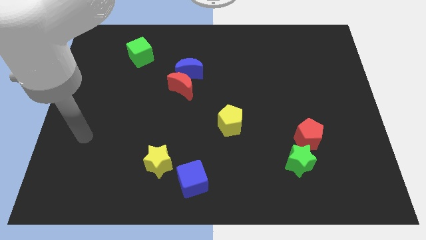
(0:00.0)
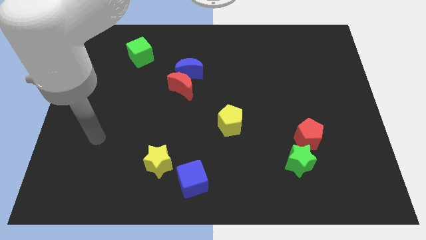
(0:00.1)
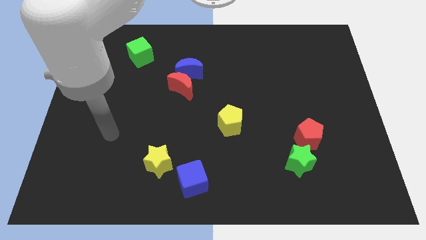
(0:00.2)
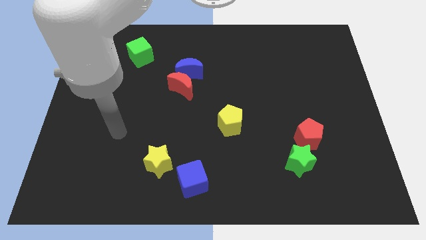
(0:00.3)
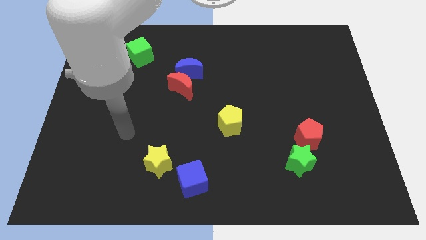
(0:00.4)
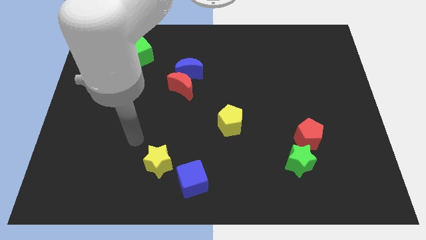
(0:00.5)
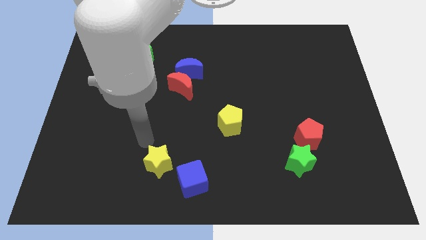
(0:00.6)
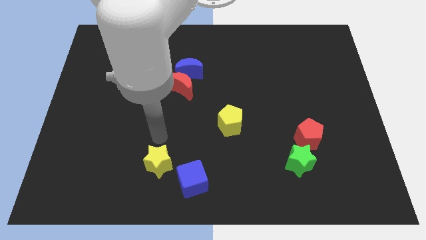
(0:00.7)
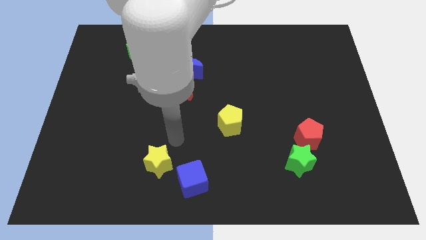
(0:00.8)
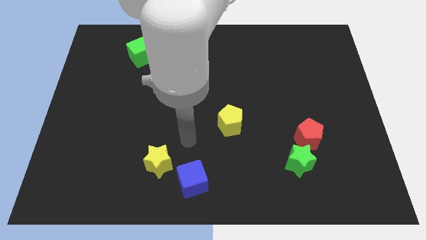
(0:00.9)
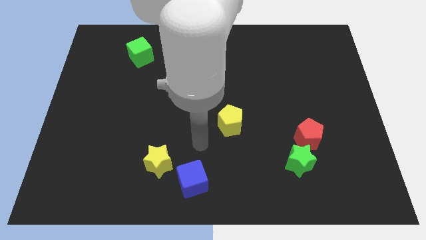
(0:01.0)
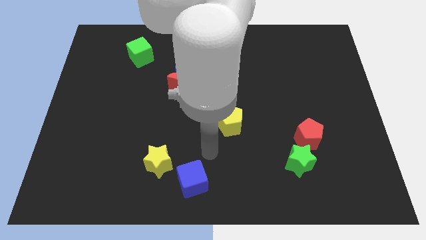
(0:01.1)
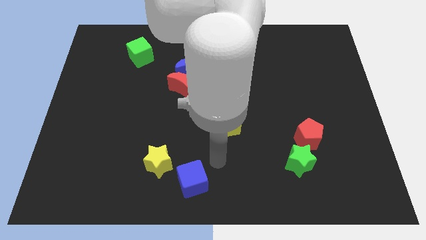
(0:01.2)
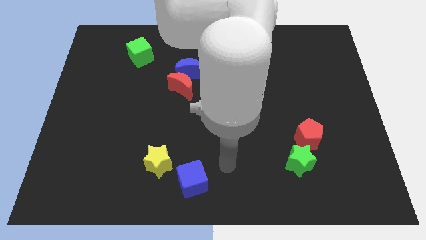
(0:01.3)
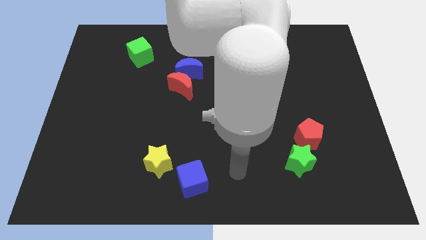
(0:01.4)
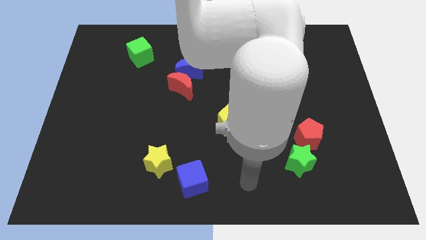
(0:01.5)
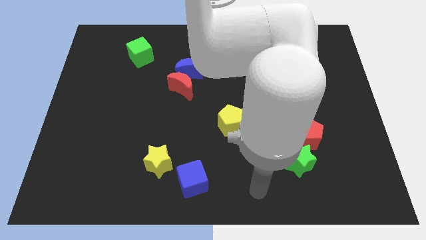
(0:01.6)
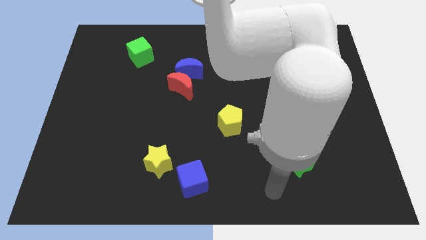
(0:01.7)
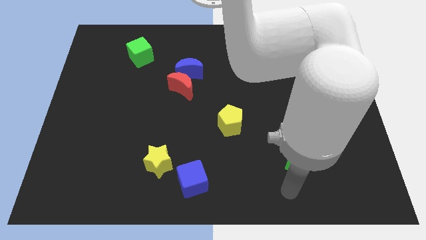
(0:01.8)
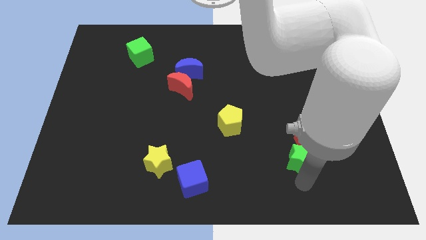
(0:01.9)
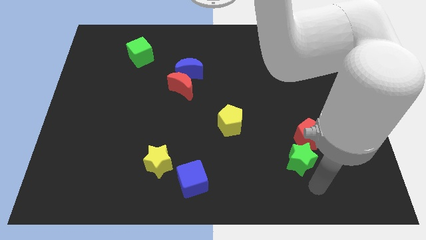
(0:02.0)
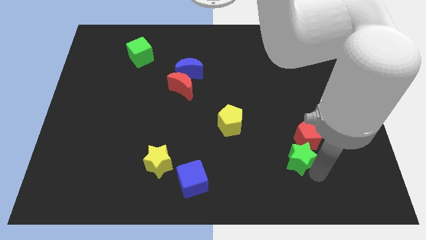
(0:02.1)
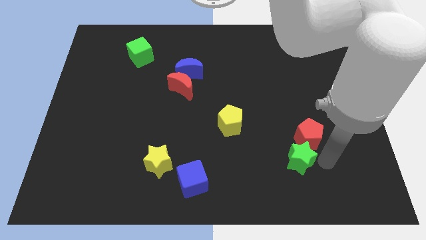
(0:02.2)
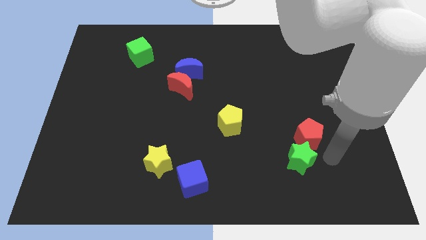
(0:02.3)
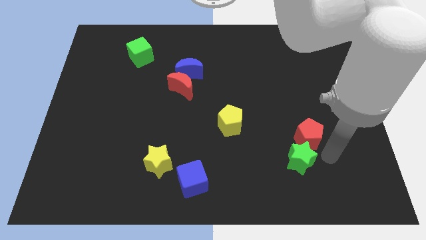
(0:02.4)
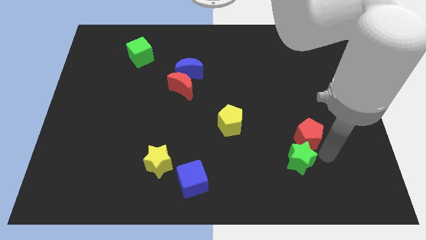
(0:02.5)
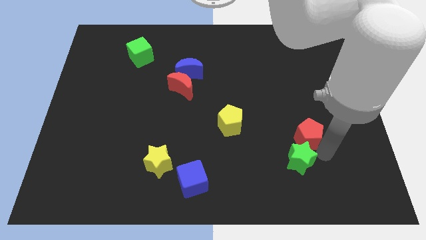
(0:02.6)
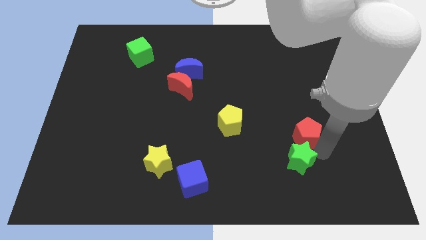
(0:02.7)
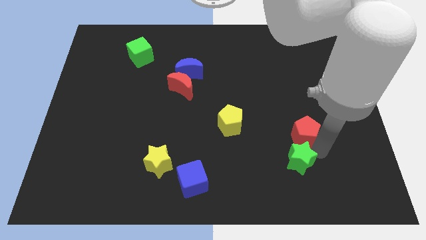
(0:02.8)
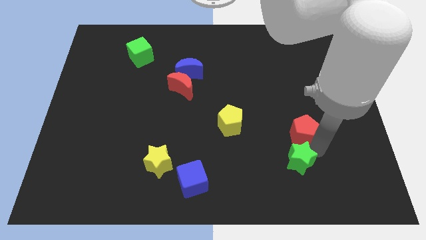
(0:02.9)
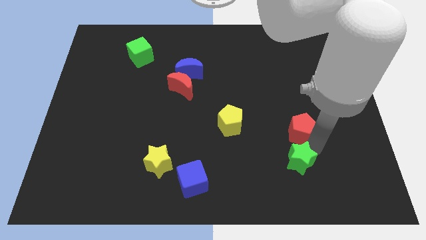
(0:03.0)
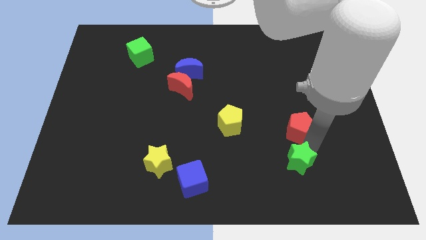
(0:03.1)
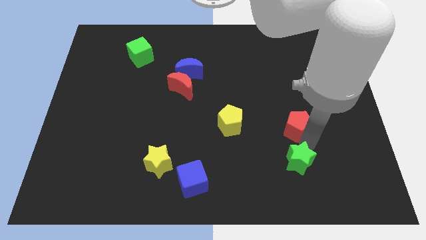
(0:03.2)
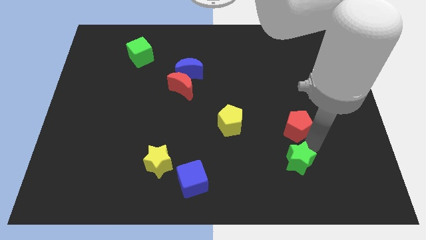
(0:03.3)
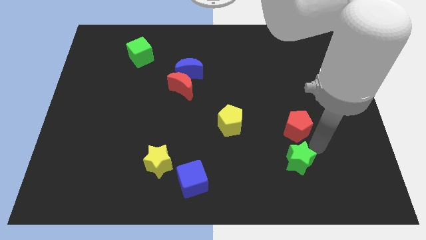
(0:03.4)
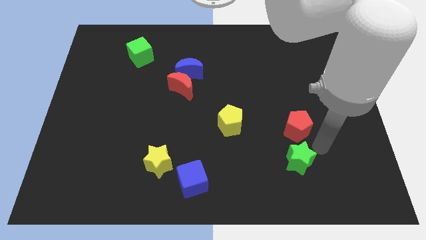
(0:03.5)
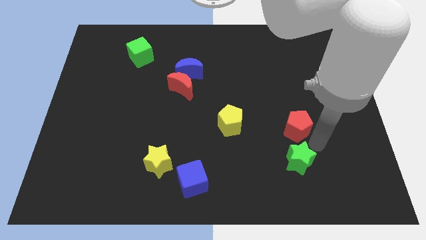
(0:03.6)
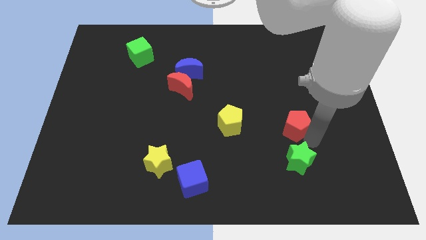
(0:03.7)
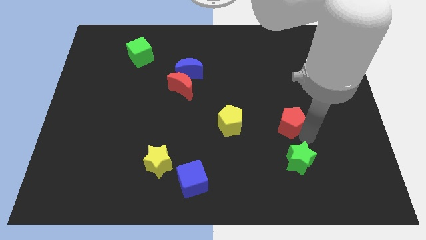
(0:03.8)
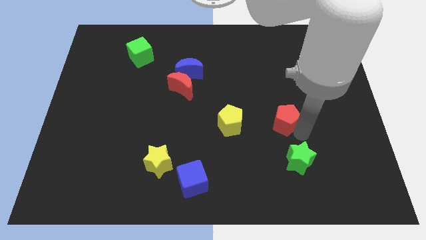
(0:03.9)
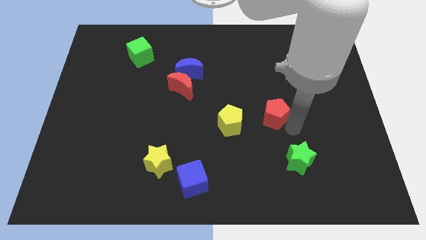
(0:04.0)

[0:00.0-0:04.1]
slide the red pentagon up and then to the left somewhat

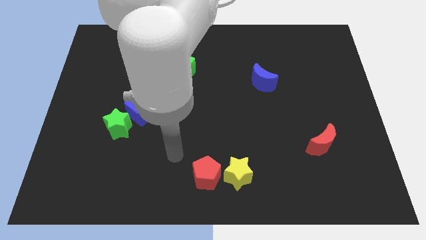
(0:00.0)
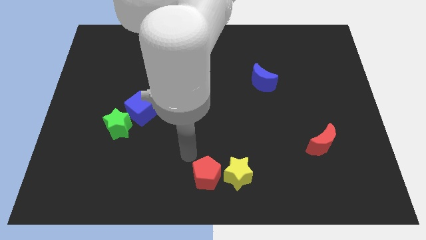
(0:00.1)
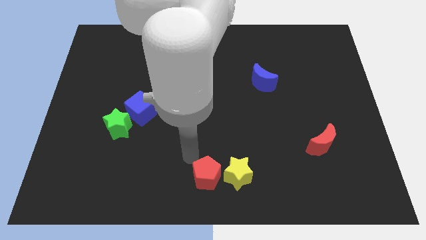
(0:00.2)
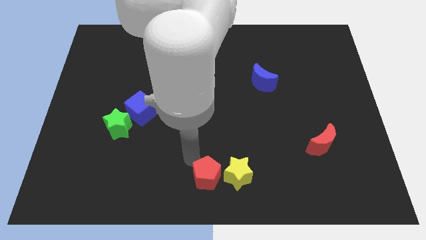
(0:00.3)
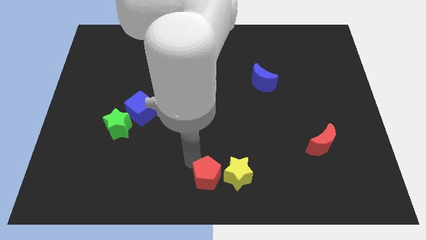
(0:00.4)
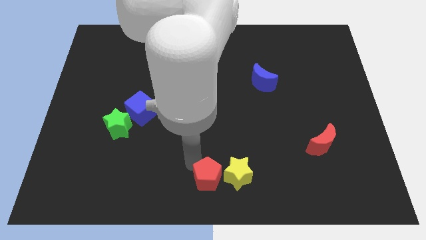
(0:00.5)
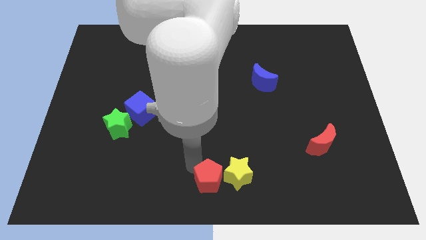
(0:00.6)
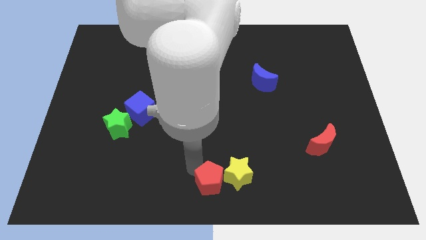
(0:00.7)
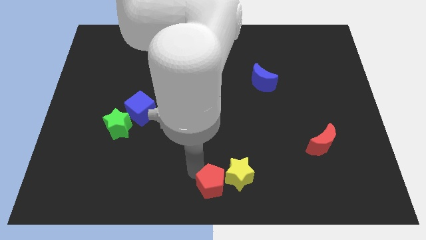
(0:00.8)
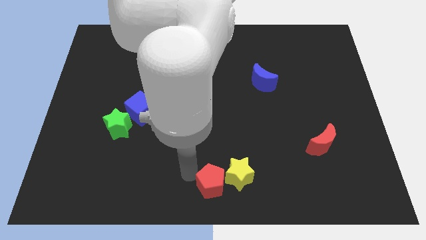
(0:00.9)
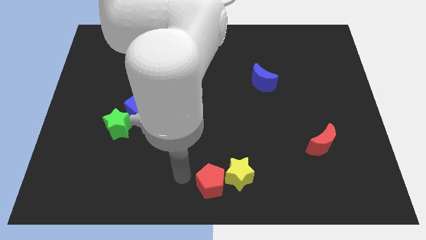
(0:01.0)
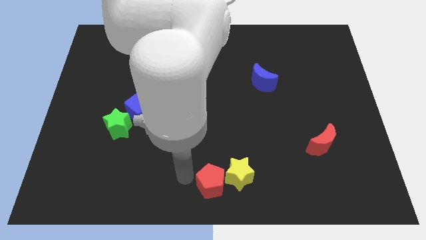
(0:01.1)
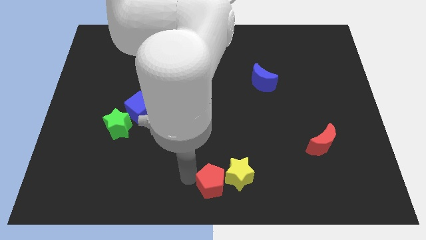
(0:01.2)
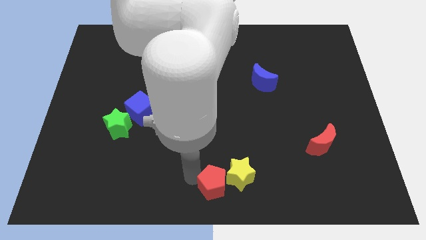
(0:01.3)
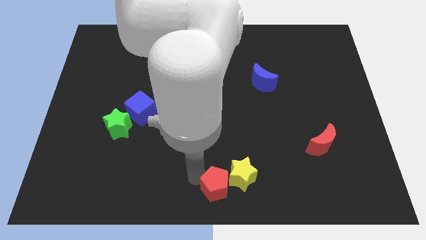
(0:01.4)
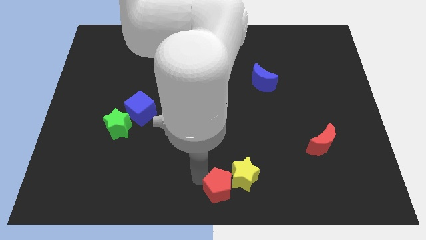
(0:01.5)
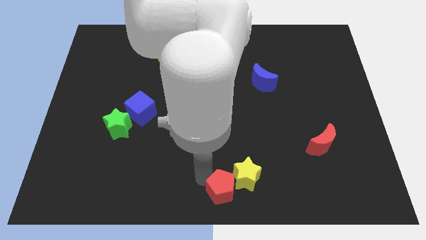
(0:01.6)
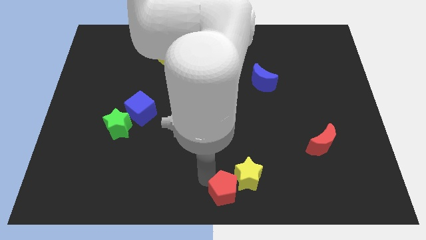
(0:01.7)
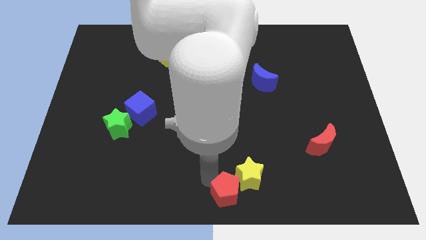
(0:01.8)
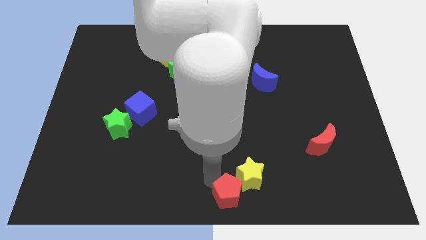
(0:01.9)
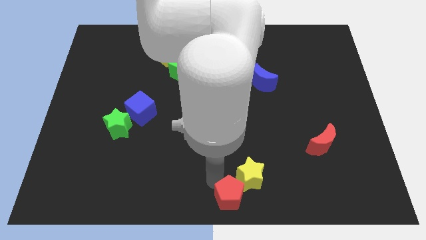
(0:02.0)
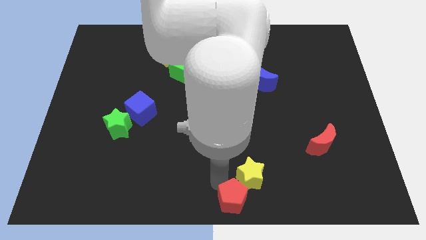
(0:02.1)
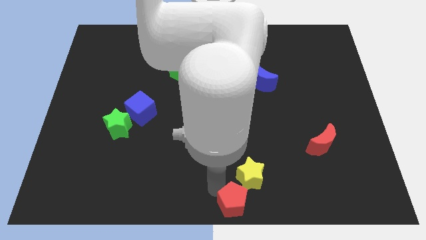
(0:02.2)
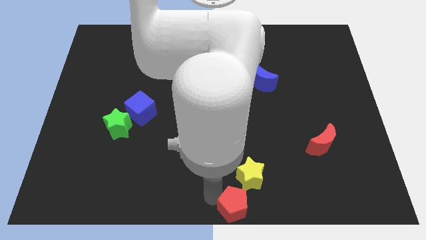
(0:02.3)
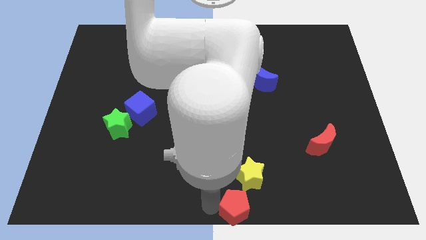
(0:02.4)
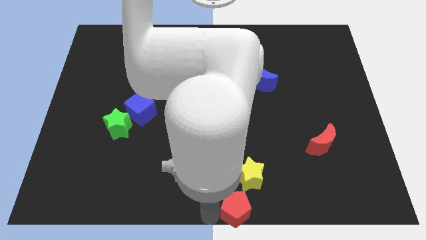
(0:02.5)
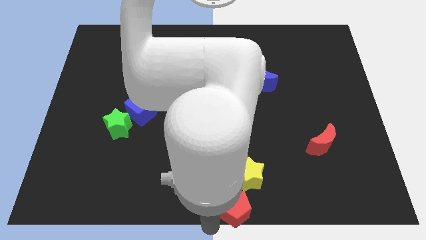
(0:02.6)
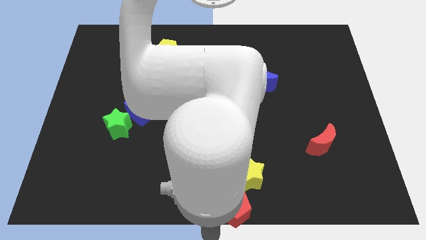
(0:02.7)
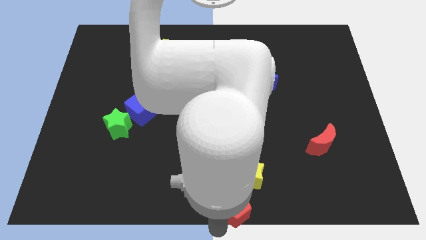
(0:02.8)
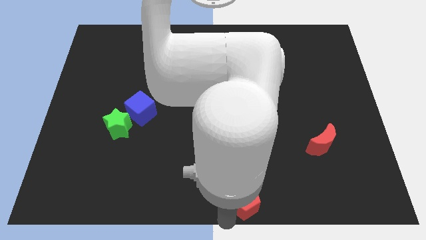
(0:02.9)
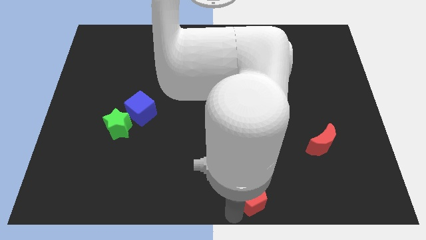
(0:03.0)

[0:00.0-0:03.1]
push the red pentagon a little bit right

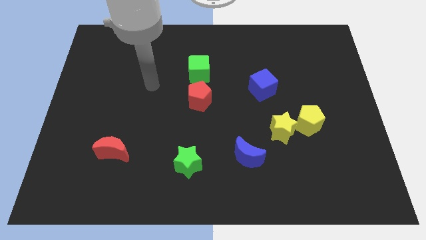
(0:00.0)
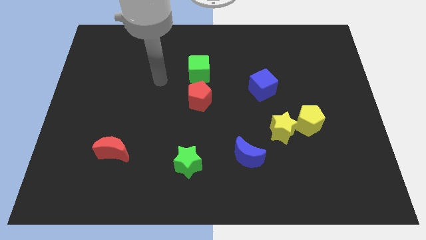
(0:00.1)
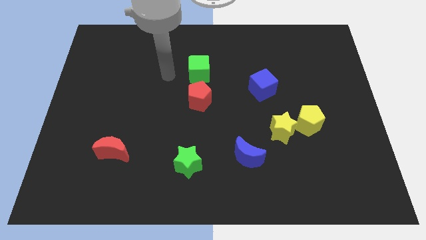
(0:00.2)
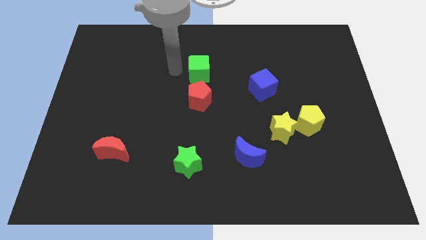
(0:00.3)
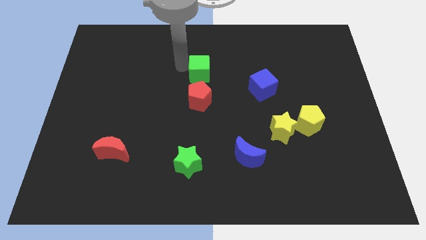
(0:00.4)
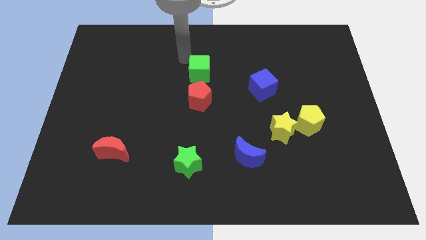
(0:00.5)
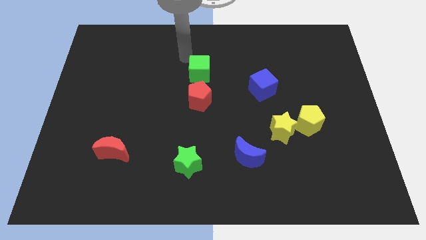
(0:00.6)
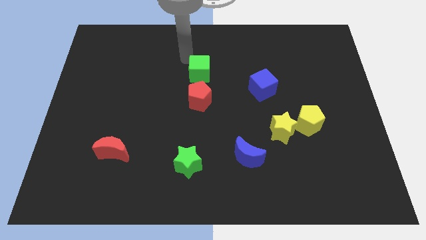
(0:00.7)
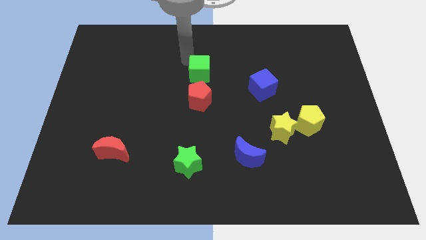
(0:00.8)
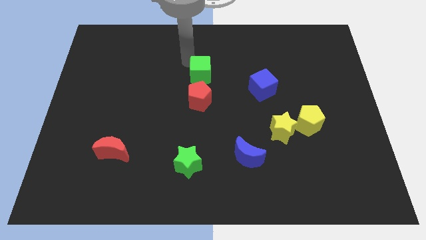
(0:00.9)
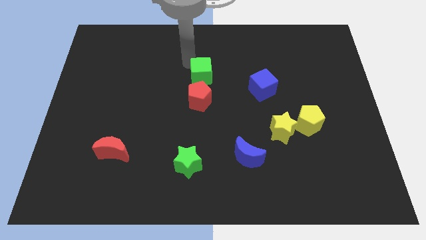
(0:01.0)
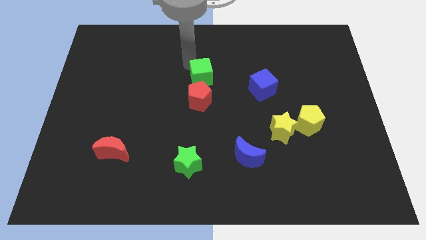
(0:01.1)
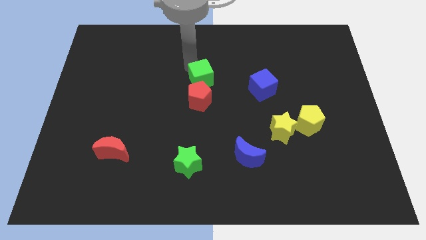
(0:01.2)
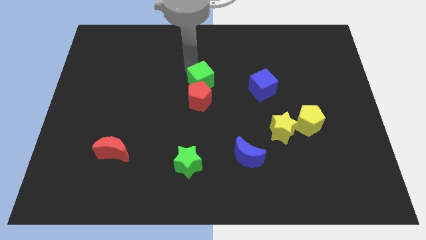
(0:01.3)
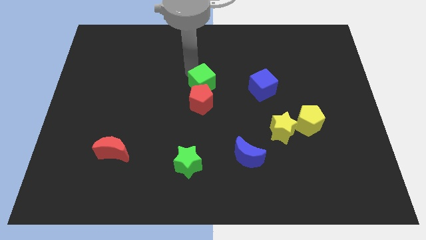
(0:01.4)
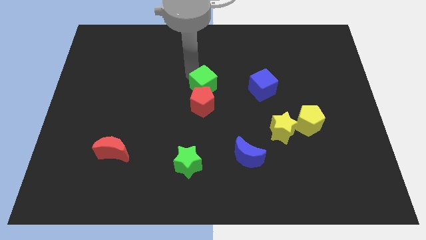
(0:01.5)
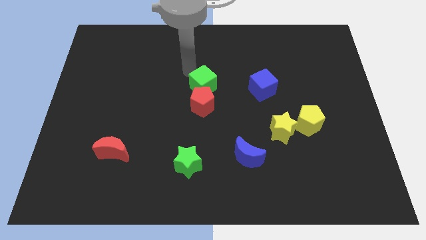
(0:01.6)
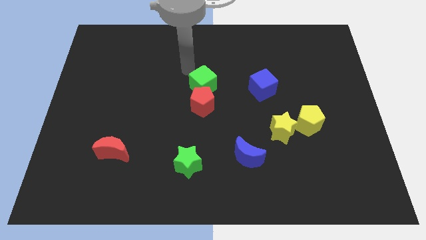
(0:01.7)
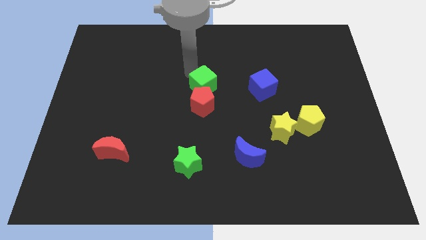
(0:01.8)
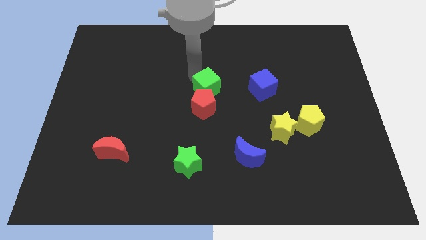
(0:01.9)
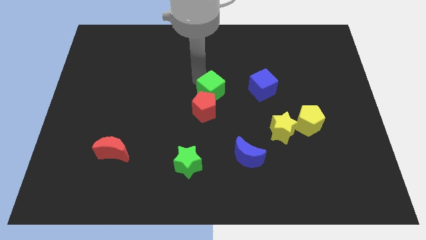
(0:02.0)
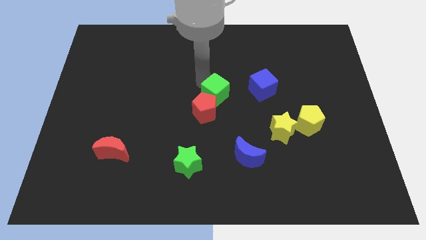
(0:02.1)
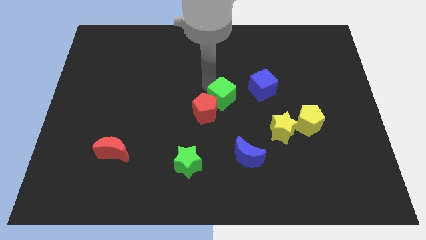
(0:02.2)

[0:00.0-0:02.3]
push the green cube slightly down
